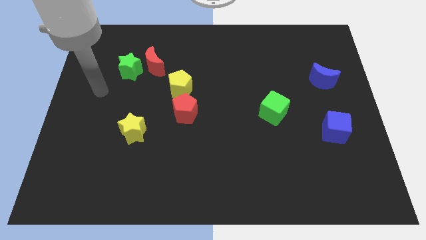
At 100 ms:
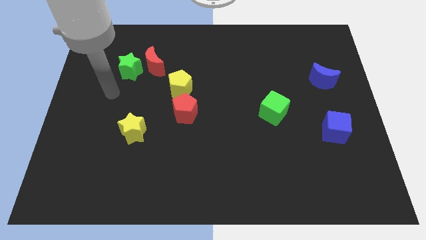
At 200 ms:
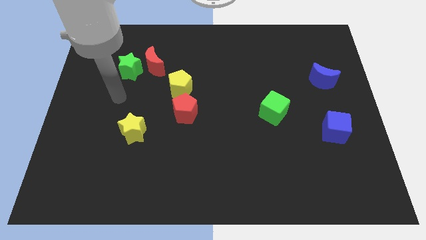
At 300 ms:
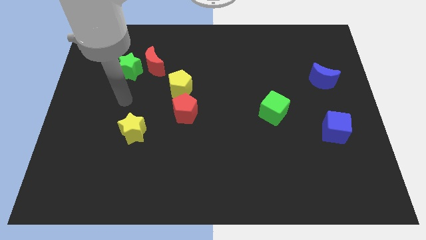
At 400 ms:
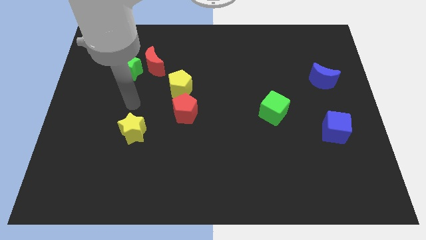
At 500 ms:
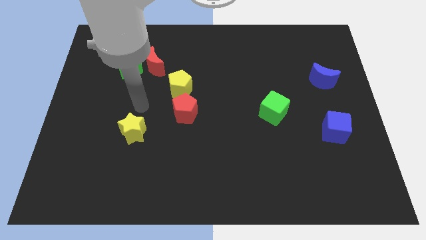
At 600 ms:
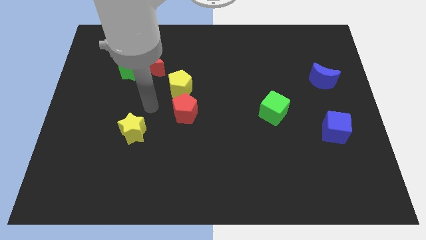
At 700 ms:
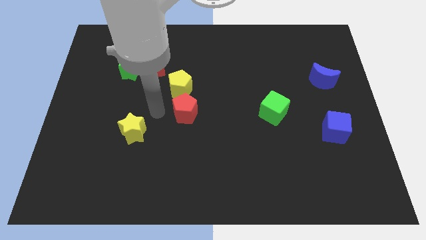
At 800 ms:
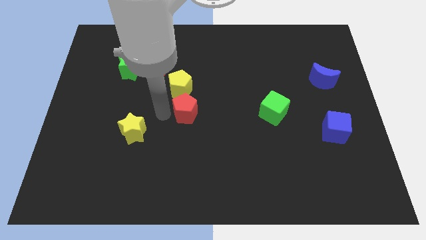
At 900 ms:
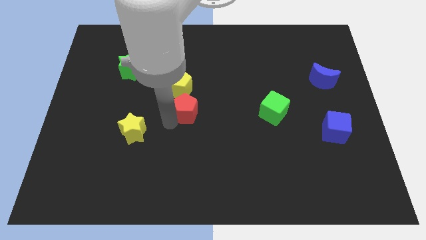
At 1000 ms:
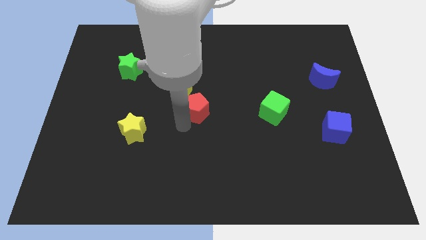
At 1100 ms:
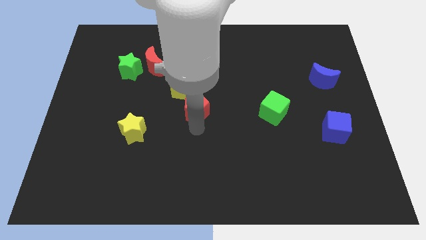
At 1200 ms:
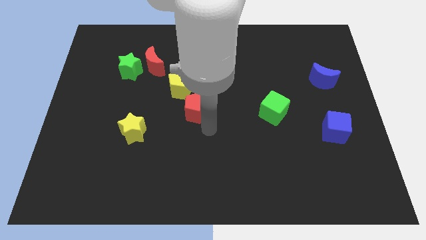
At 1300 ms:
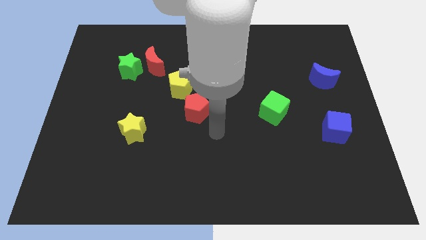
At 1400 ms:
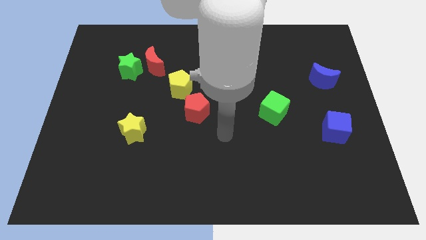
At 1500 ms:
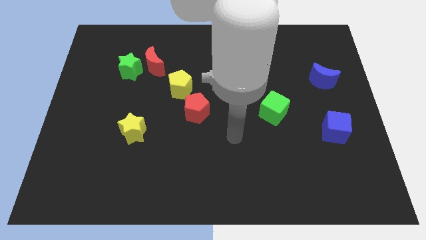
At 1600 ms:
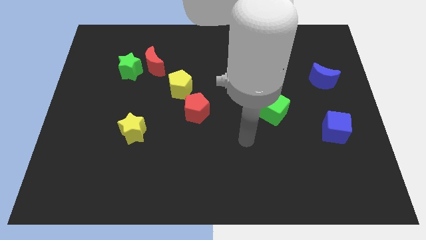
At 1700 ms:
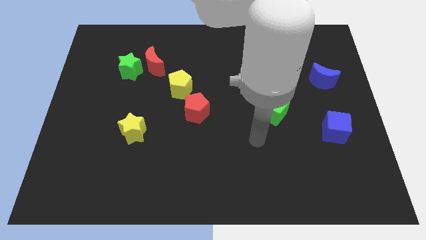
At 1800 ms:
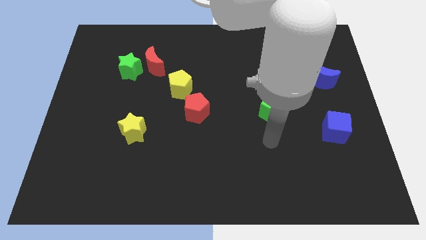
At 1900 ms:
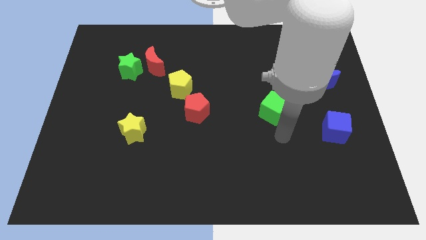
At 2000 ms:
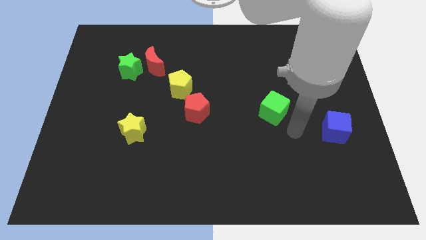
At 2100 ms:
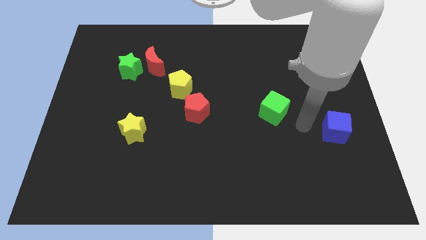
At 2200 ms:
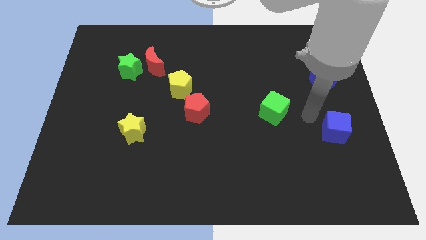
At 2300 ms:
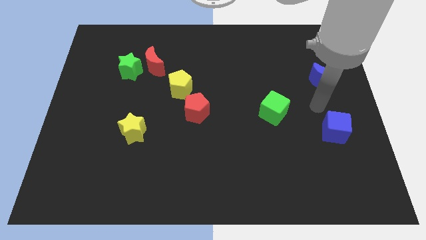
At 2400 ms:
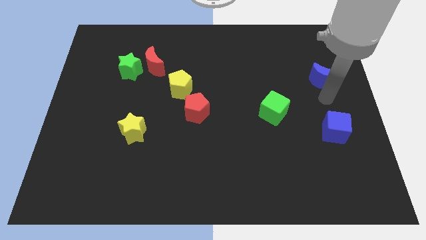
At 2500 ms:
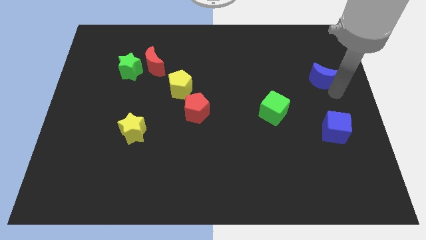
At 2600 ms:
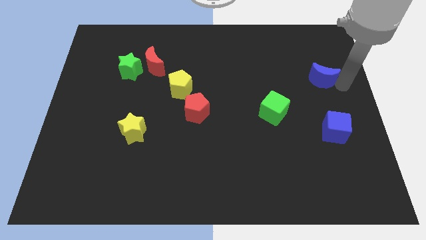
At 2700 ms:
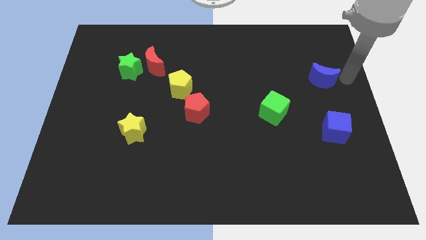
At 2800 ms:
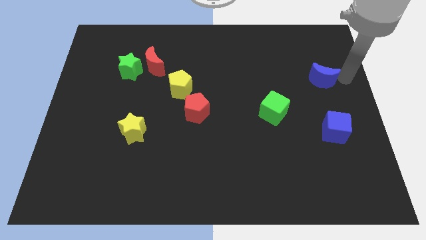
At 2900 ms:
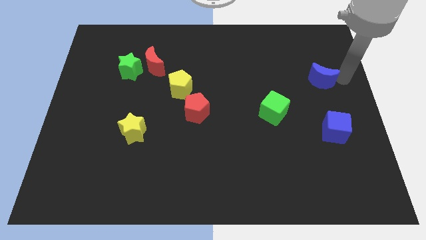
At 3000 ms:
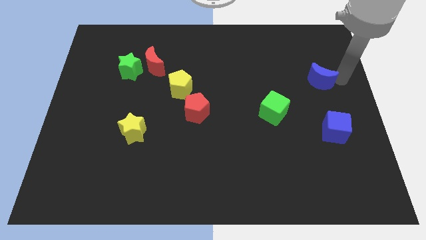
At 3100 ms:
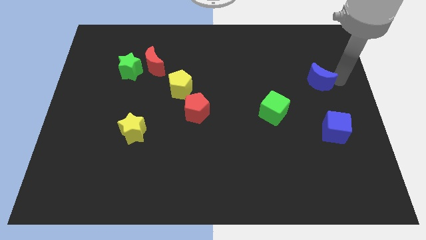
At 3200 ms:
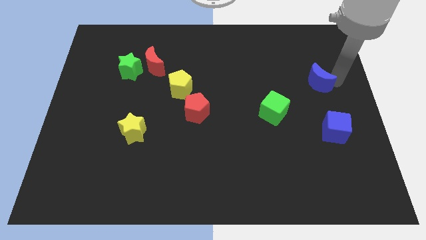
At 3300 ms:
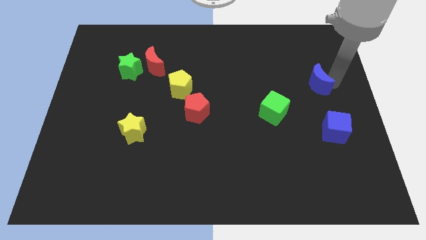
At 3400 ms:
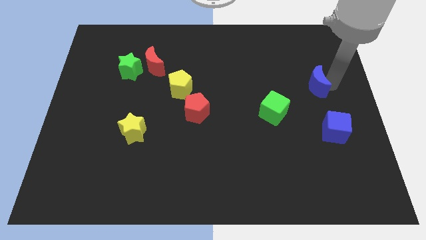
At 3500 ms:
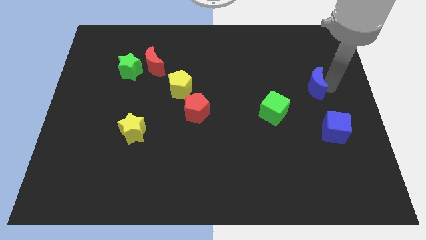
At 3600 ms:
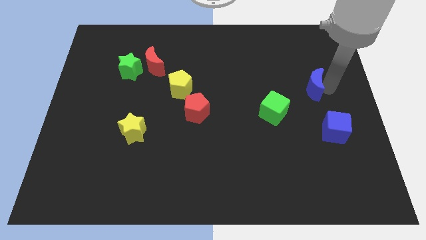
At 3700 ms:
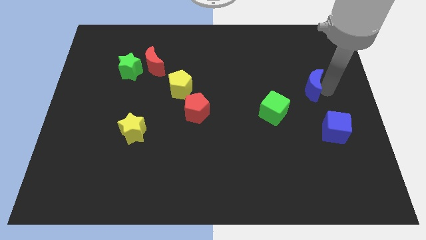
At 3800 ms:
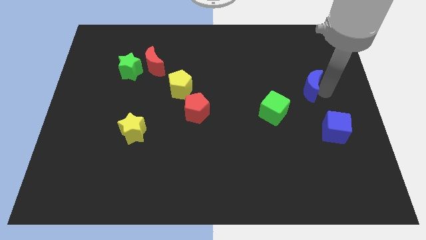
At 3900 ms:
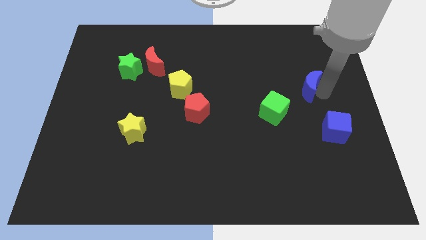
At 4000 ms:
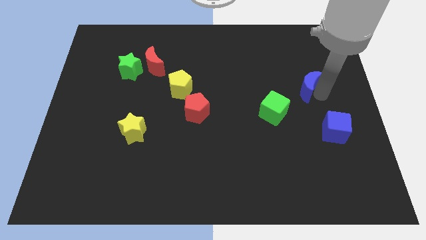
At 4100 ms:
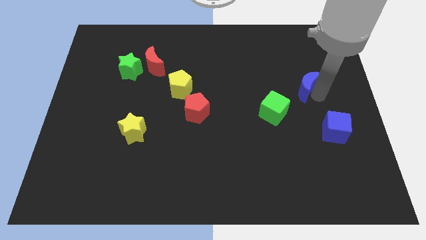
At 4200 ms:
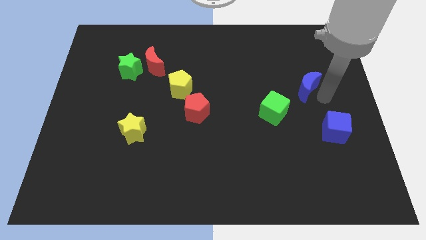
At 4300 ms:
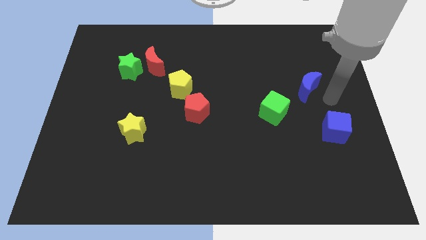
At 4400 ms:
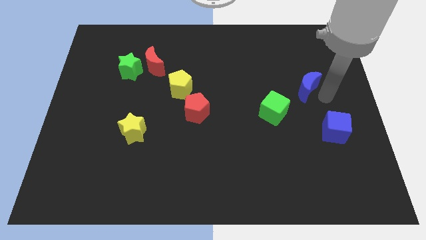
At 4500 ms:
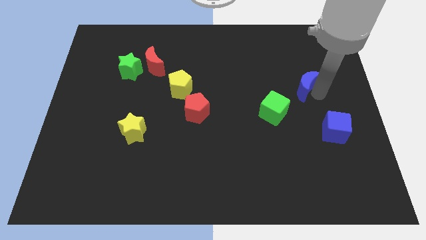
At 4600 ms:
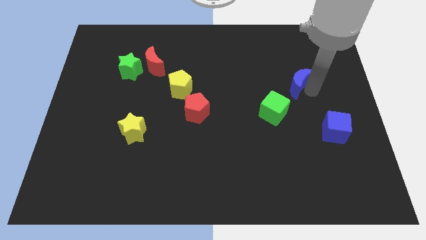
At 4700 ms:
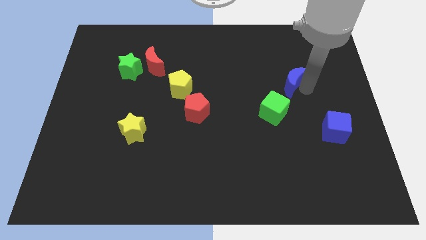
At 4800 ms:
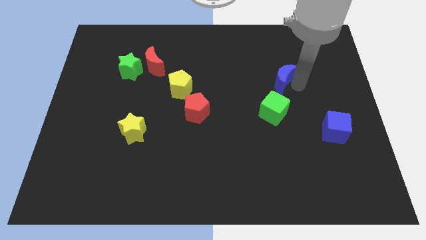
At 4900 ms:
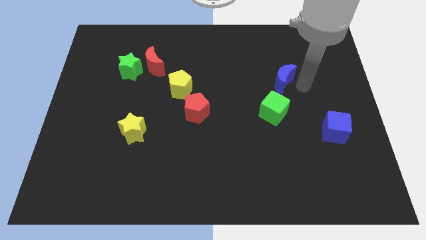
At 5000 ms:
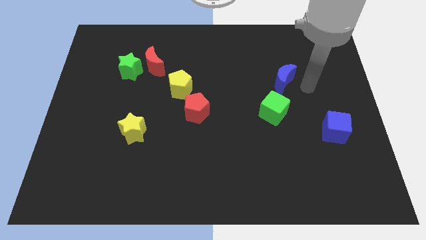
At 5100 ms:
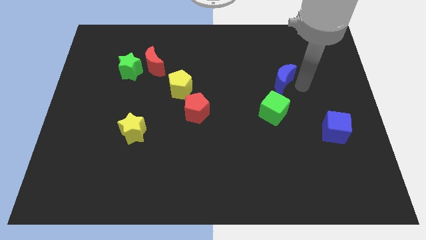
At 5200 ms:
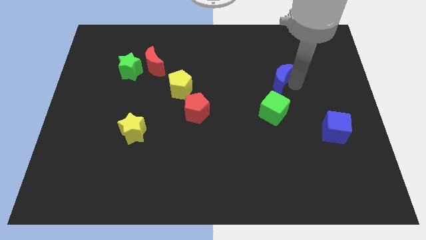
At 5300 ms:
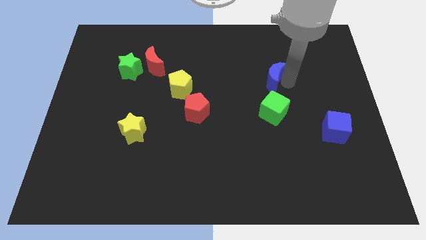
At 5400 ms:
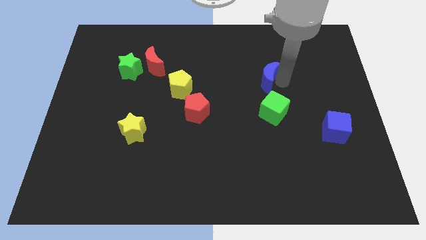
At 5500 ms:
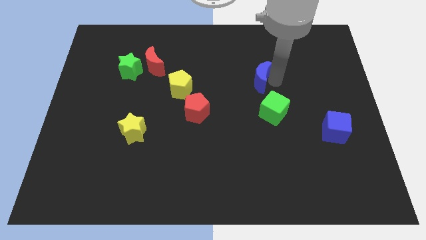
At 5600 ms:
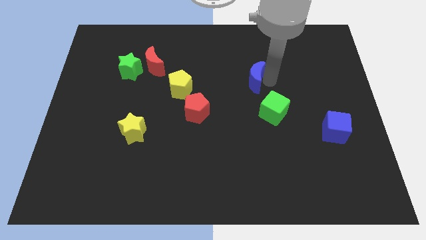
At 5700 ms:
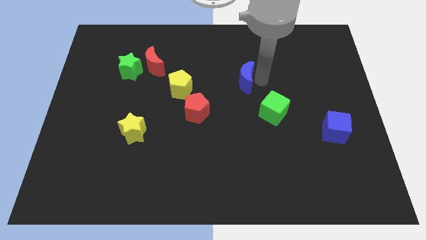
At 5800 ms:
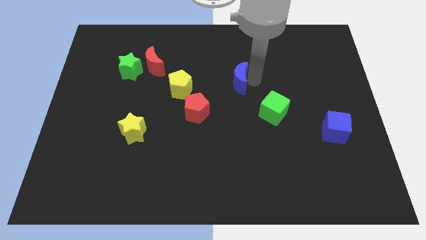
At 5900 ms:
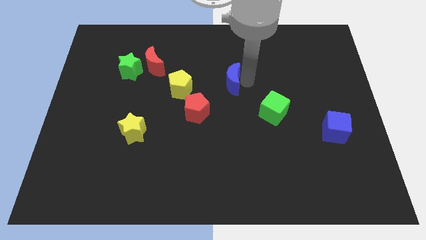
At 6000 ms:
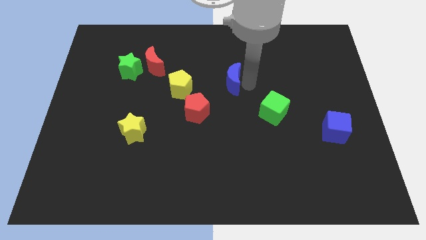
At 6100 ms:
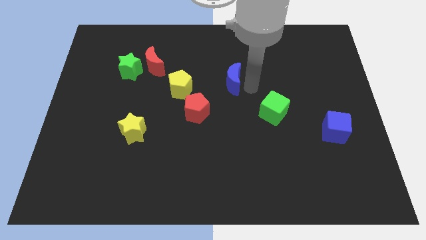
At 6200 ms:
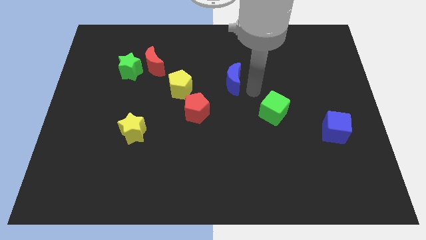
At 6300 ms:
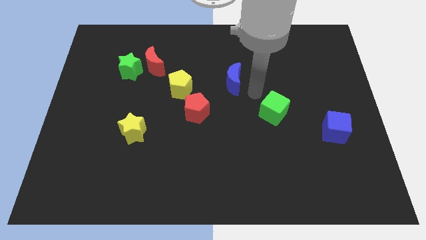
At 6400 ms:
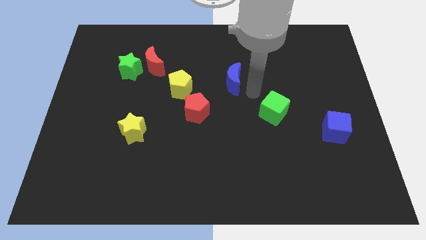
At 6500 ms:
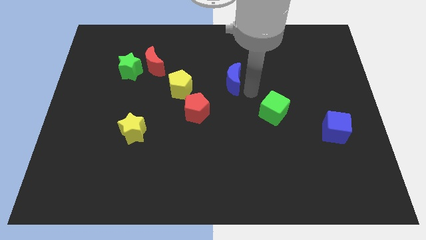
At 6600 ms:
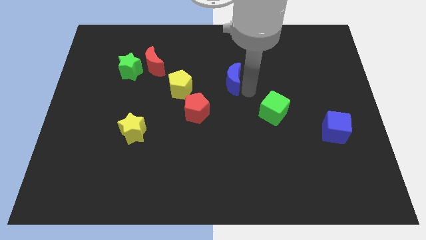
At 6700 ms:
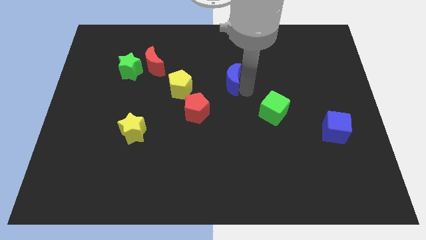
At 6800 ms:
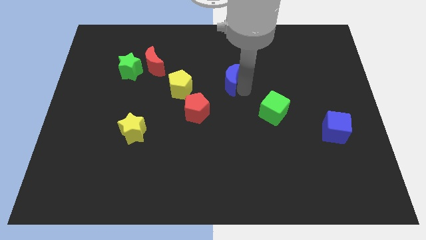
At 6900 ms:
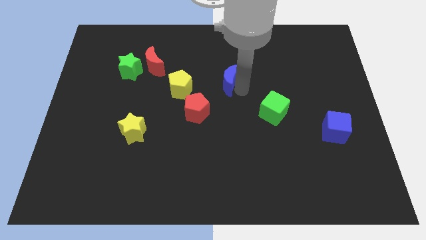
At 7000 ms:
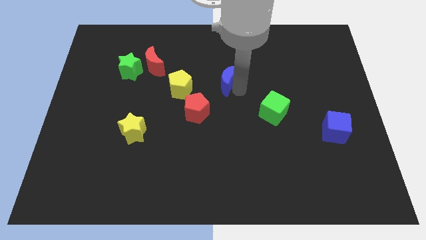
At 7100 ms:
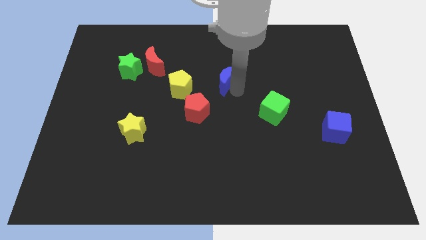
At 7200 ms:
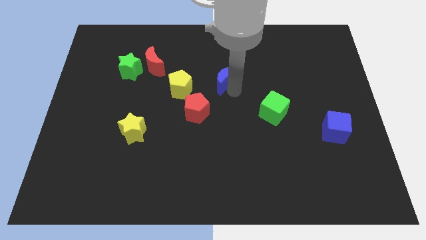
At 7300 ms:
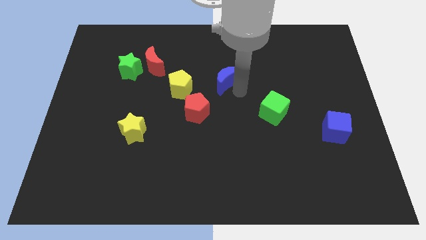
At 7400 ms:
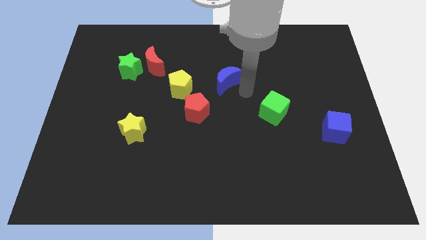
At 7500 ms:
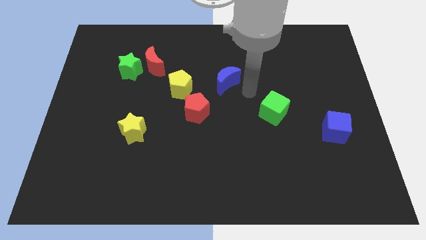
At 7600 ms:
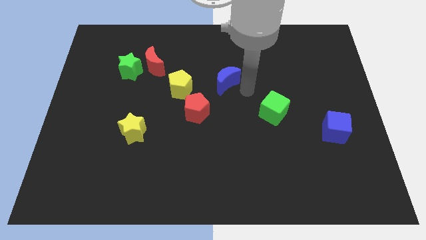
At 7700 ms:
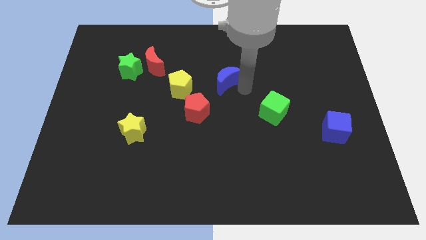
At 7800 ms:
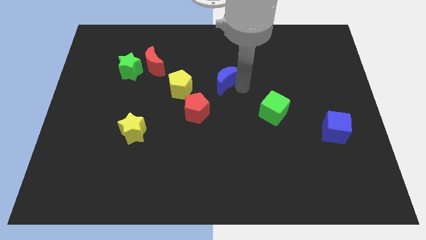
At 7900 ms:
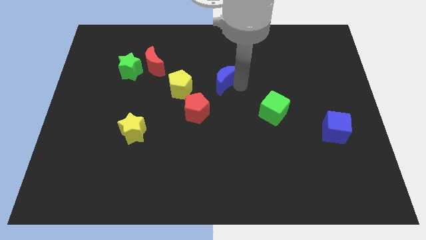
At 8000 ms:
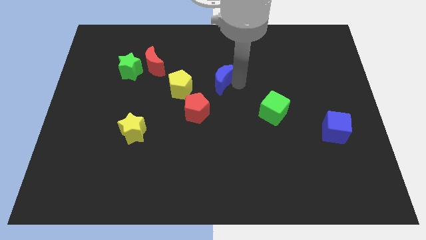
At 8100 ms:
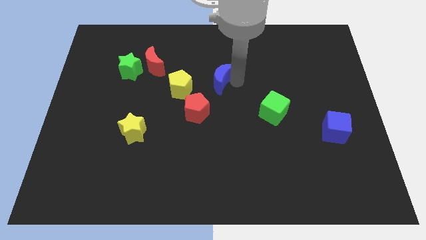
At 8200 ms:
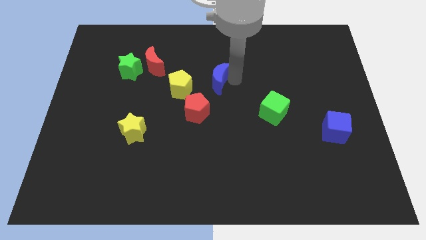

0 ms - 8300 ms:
slide the blue moon to the top right of the yellow pentagon
